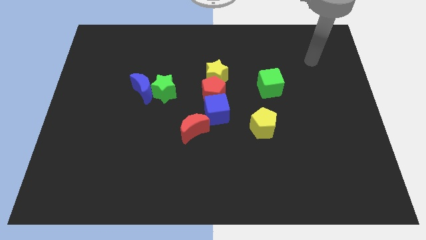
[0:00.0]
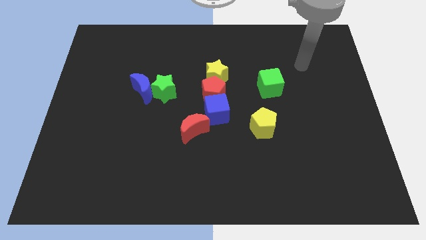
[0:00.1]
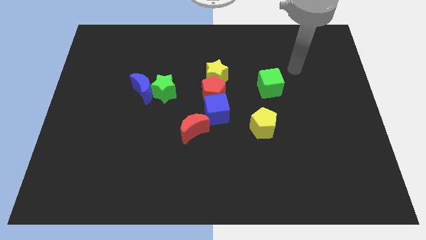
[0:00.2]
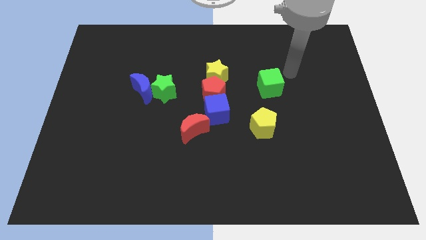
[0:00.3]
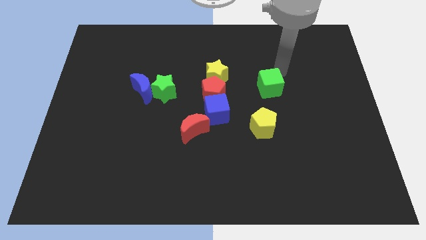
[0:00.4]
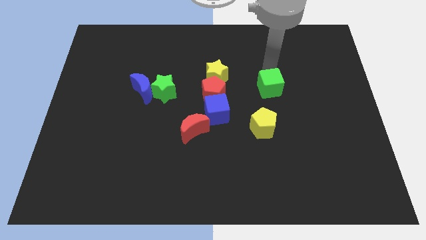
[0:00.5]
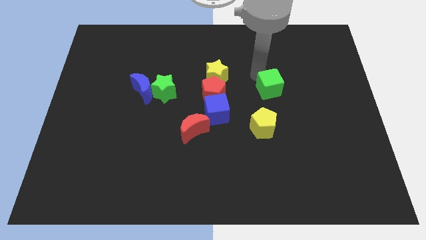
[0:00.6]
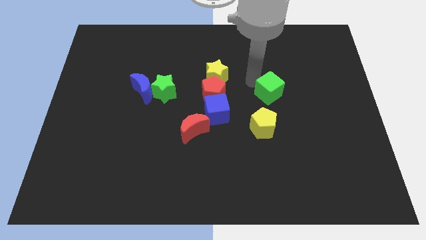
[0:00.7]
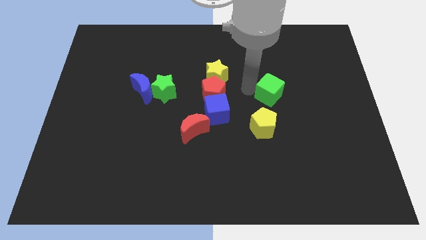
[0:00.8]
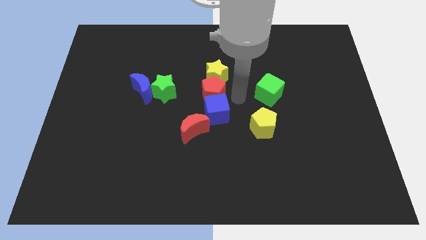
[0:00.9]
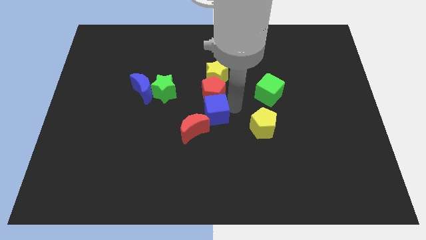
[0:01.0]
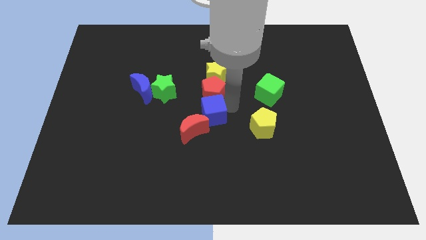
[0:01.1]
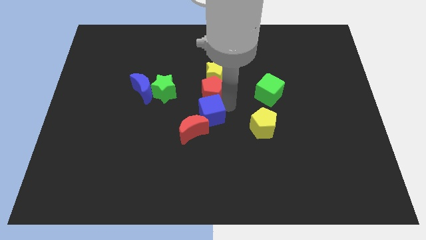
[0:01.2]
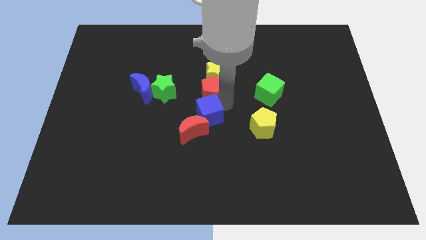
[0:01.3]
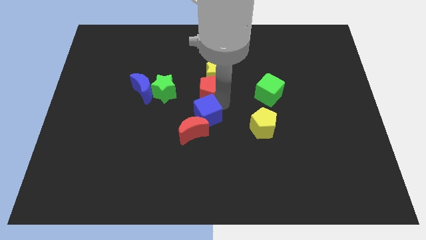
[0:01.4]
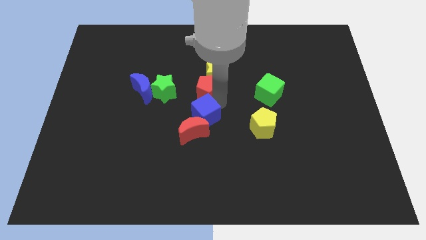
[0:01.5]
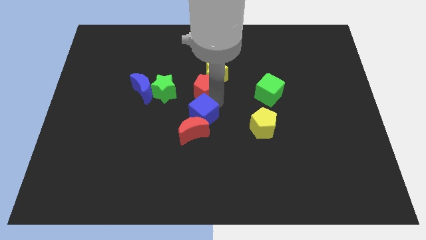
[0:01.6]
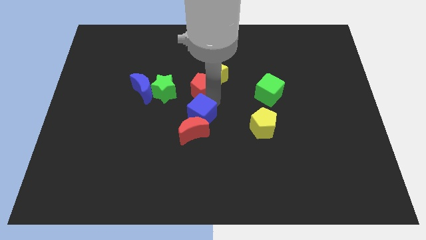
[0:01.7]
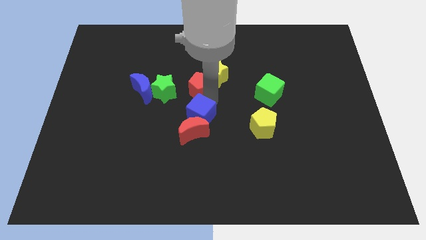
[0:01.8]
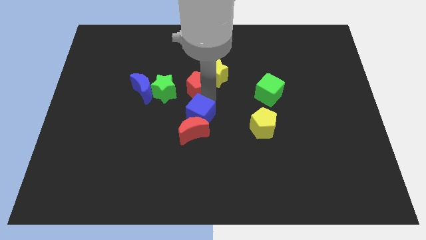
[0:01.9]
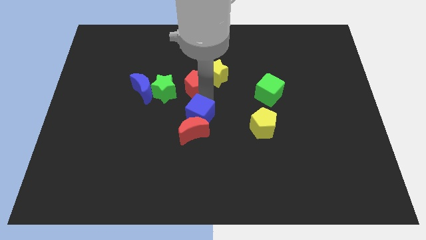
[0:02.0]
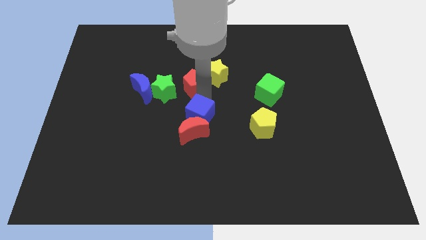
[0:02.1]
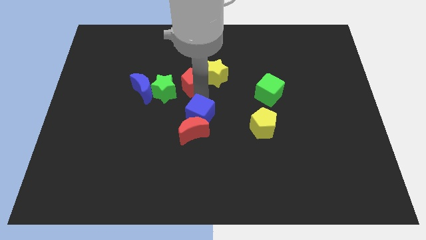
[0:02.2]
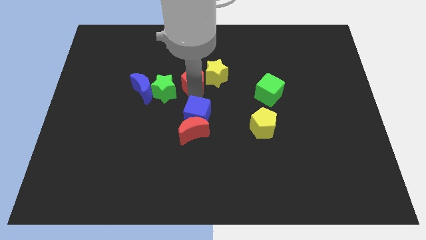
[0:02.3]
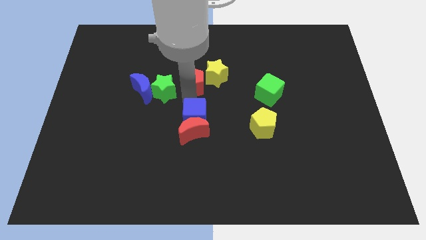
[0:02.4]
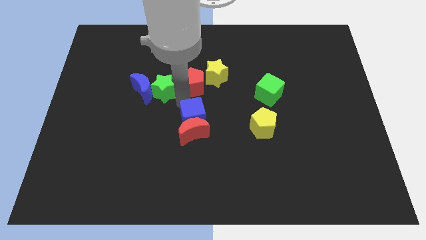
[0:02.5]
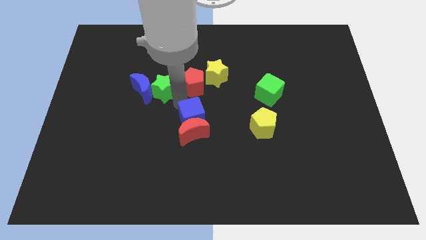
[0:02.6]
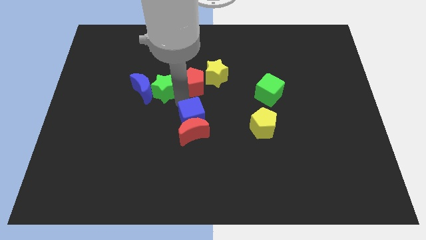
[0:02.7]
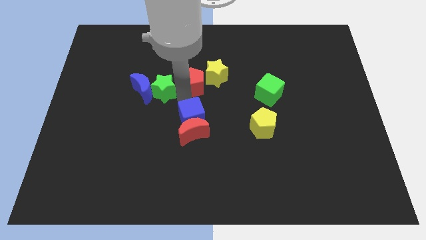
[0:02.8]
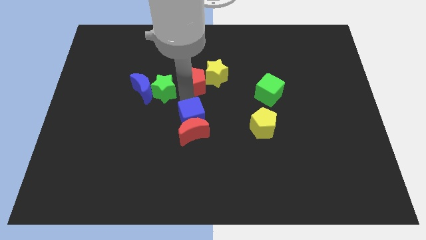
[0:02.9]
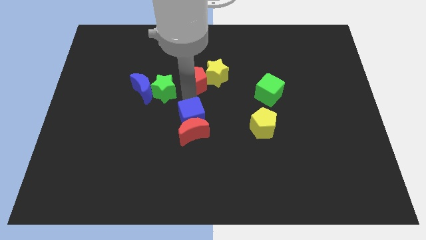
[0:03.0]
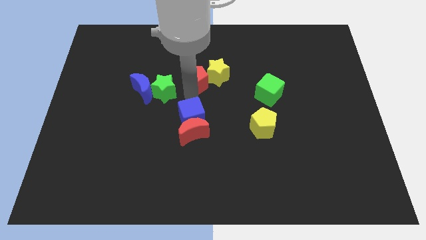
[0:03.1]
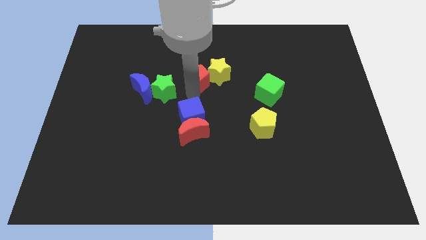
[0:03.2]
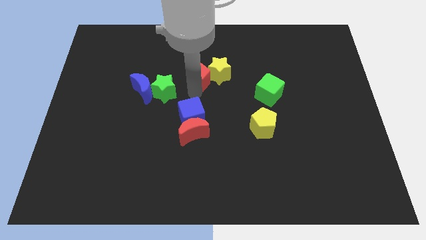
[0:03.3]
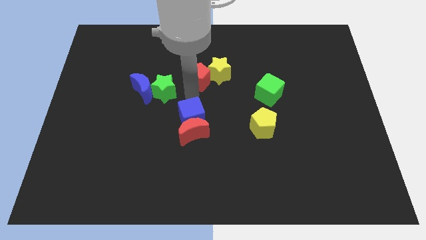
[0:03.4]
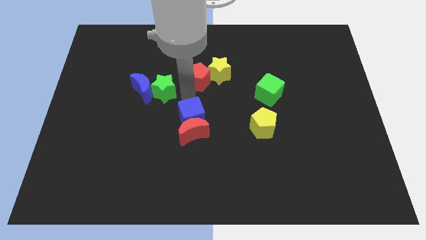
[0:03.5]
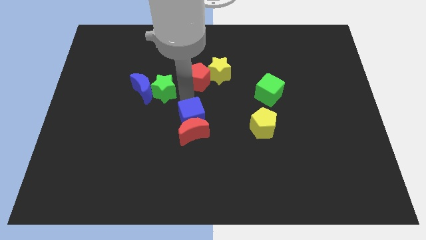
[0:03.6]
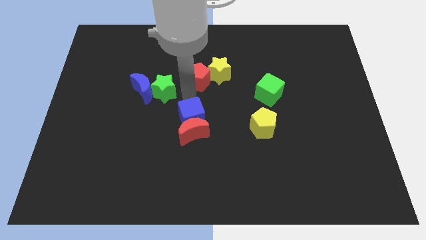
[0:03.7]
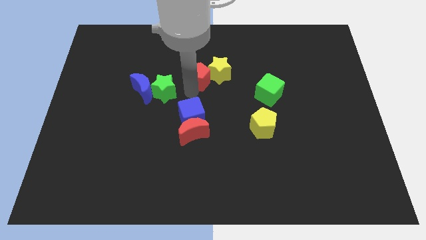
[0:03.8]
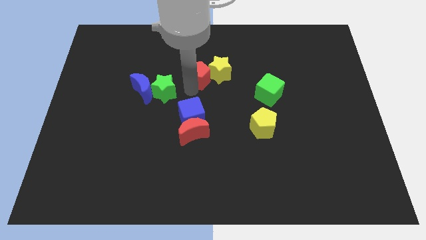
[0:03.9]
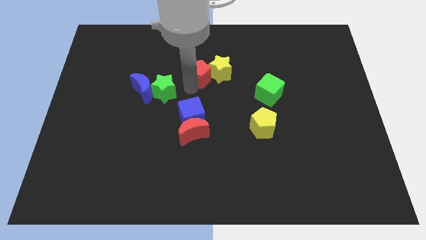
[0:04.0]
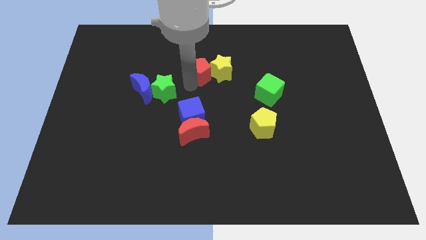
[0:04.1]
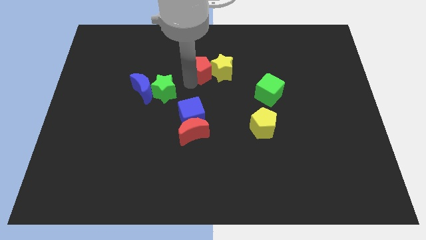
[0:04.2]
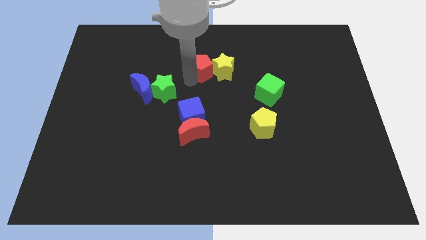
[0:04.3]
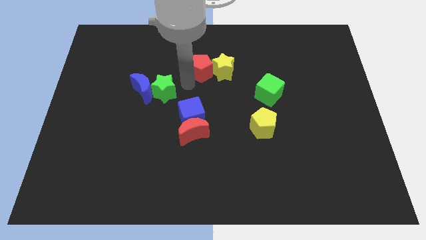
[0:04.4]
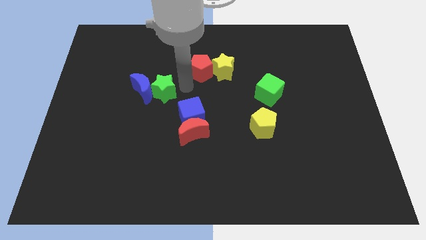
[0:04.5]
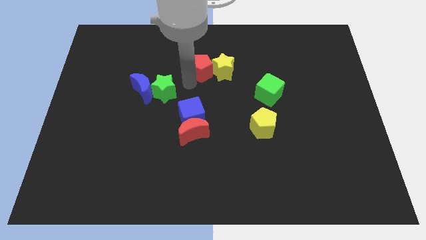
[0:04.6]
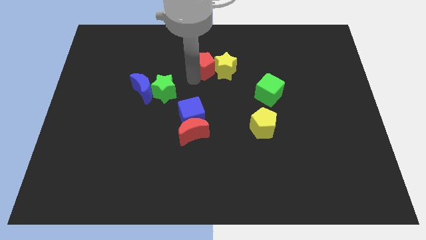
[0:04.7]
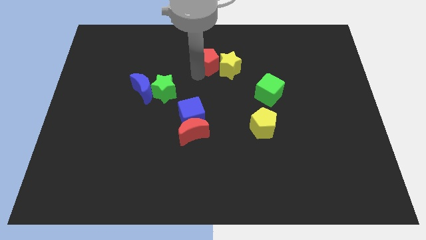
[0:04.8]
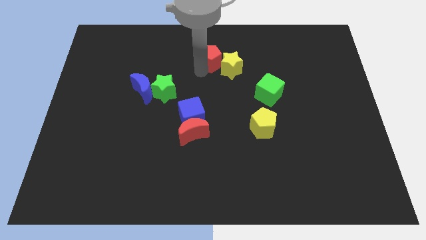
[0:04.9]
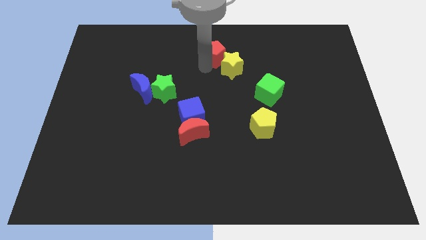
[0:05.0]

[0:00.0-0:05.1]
put the red pentagon to the towards your base

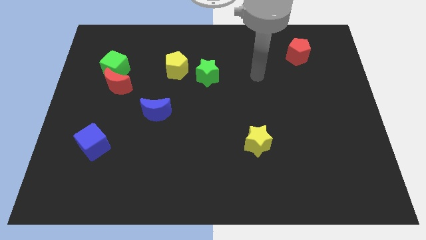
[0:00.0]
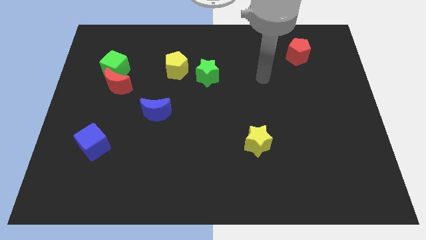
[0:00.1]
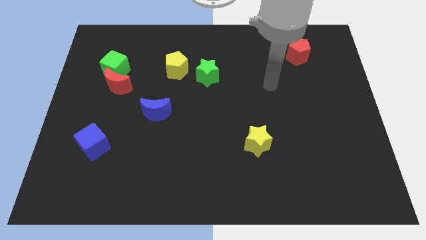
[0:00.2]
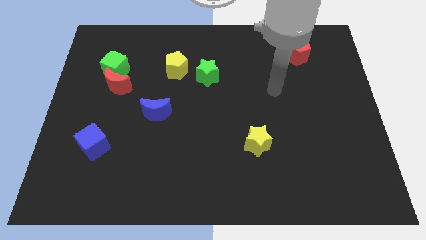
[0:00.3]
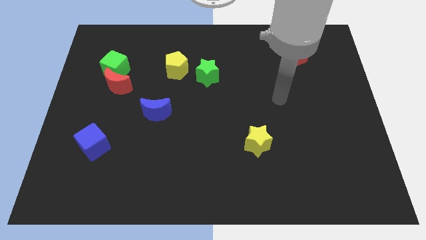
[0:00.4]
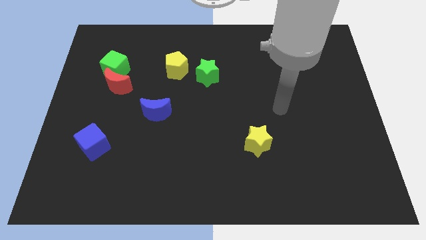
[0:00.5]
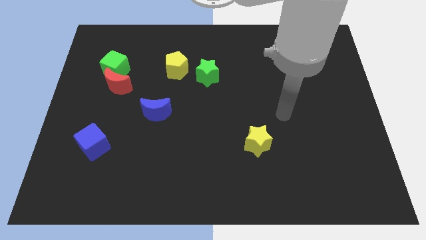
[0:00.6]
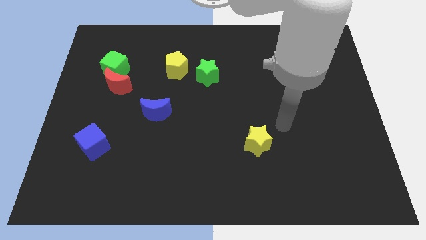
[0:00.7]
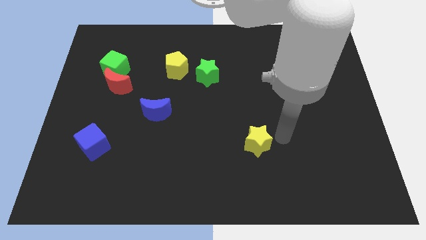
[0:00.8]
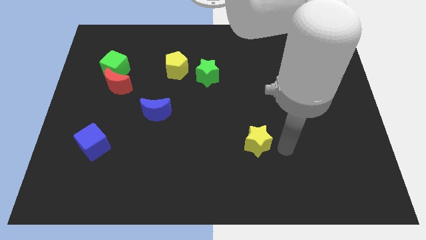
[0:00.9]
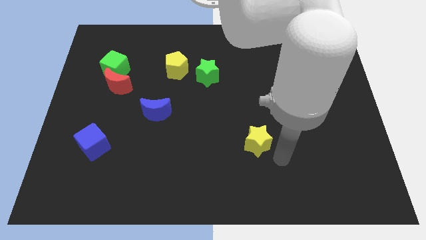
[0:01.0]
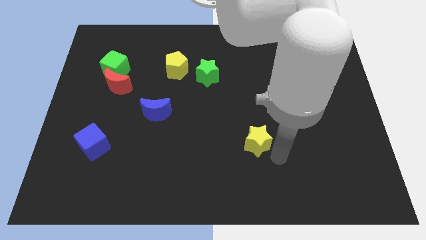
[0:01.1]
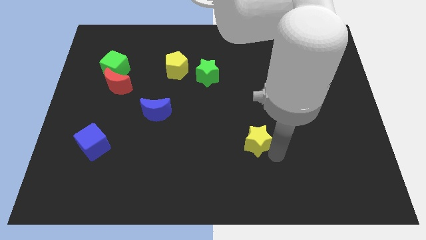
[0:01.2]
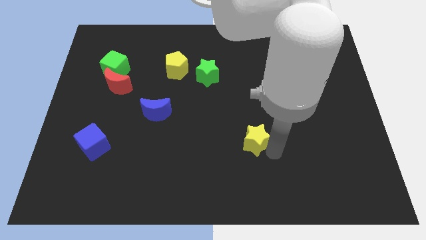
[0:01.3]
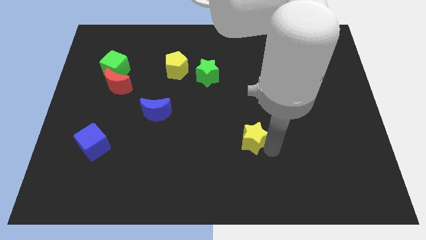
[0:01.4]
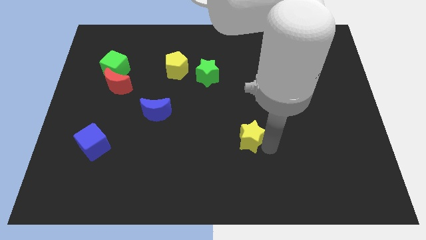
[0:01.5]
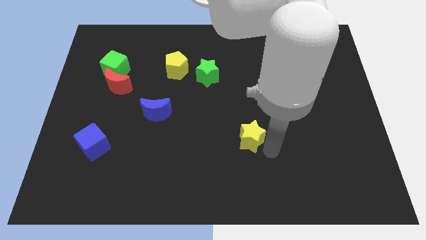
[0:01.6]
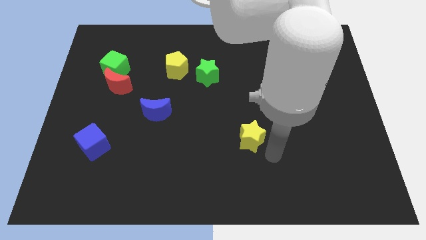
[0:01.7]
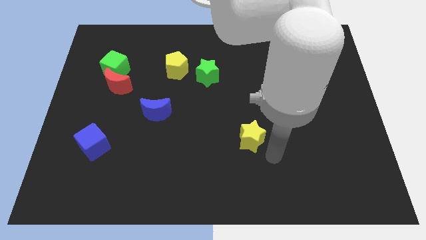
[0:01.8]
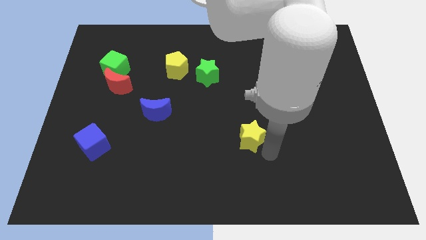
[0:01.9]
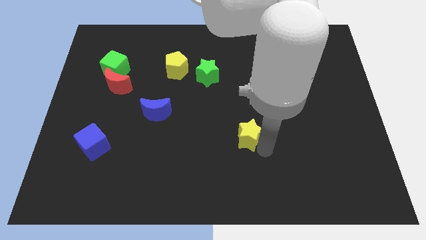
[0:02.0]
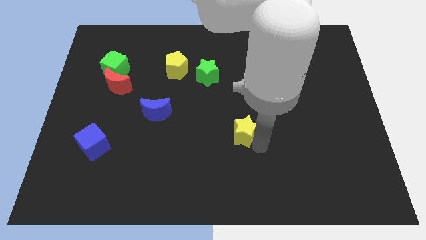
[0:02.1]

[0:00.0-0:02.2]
move the yellow star to the middle of the board

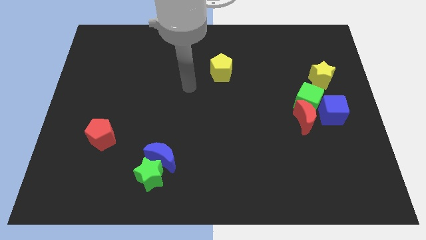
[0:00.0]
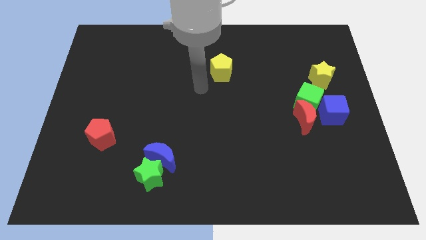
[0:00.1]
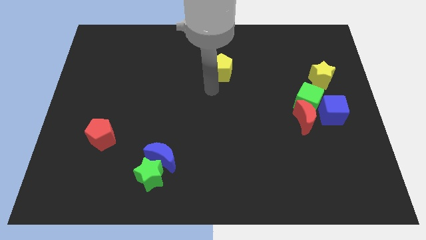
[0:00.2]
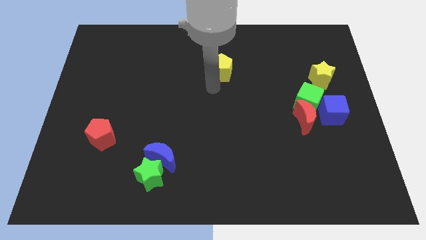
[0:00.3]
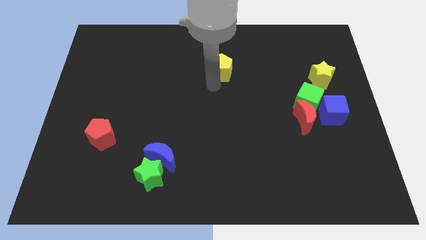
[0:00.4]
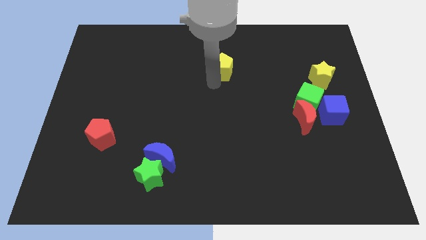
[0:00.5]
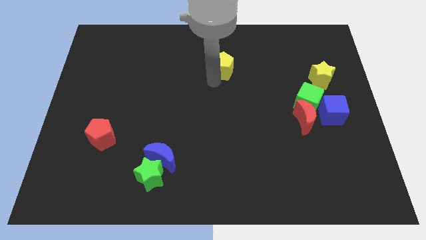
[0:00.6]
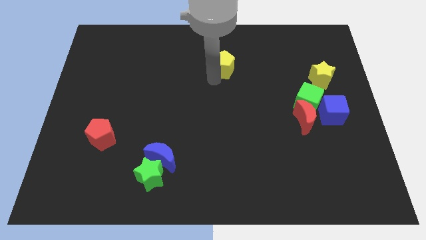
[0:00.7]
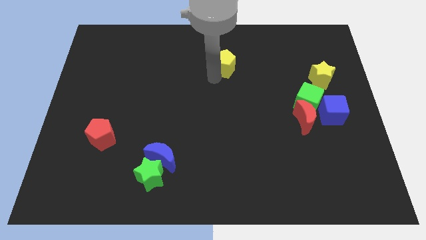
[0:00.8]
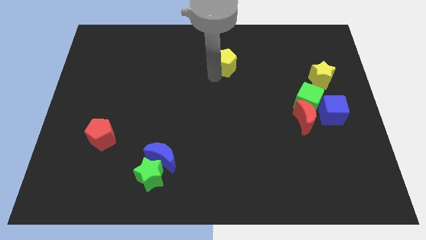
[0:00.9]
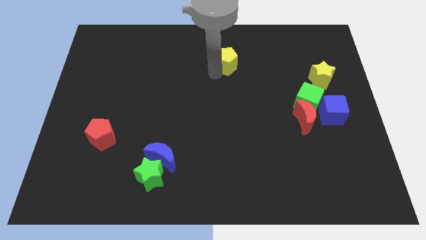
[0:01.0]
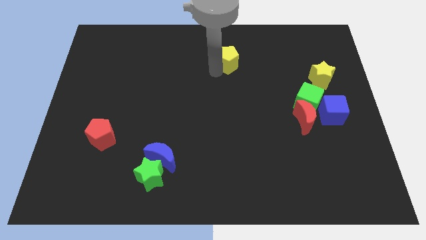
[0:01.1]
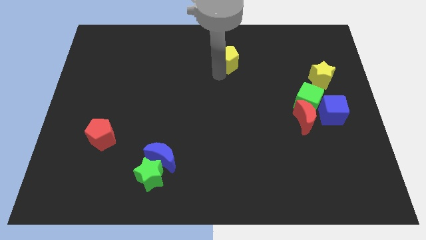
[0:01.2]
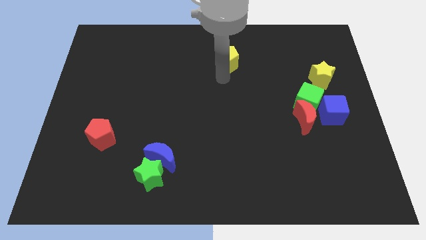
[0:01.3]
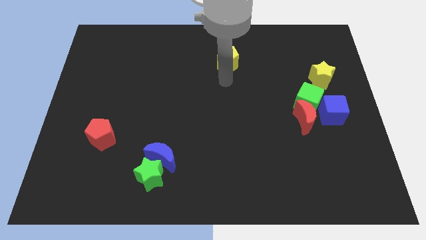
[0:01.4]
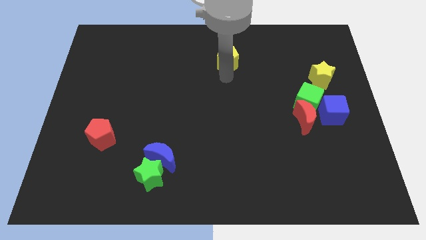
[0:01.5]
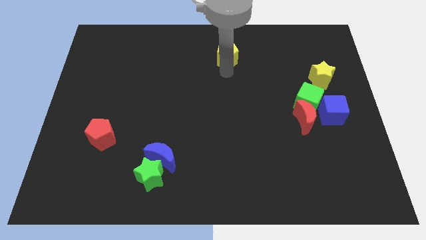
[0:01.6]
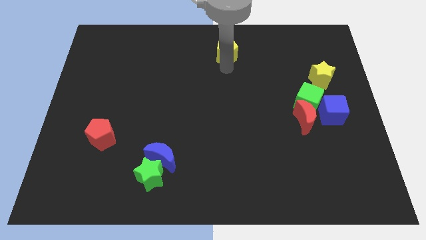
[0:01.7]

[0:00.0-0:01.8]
push the yellow pentagon to the towards your base
